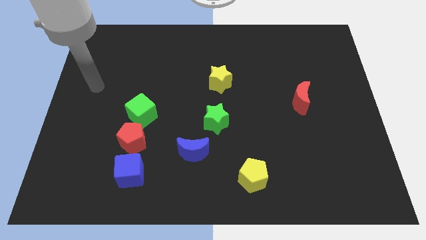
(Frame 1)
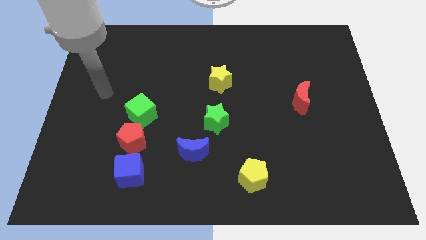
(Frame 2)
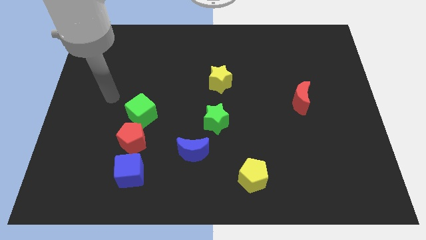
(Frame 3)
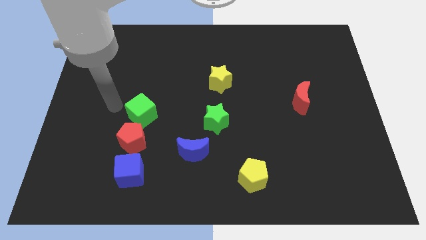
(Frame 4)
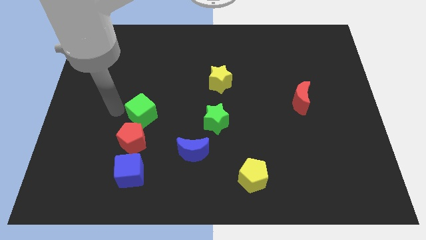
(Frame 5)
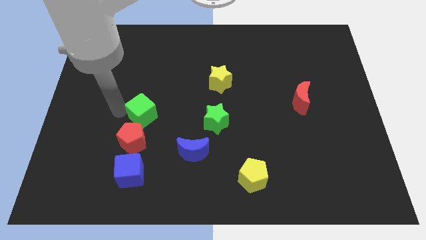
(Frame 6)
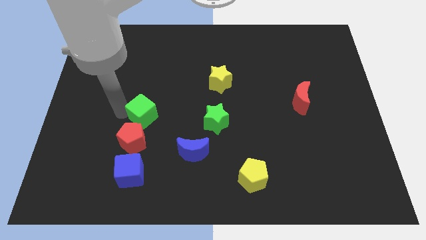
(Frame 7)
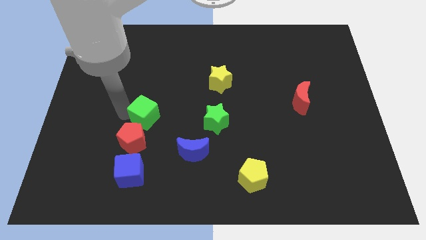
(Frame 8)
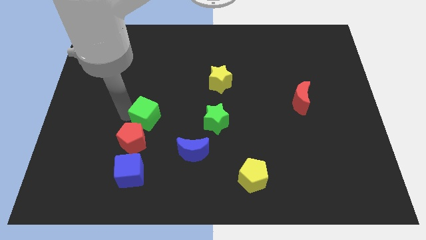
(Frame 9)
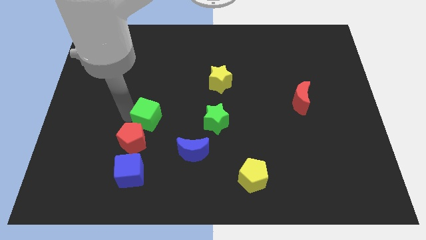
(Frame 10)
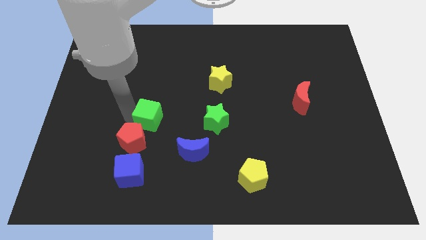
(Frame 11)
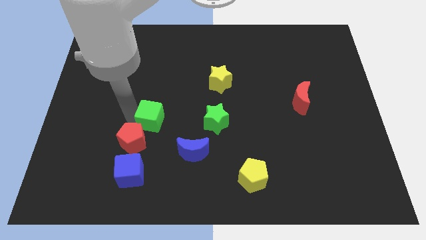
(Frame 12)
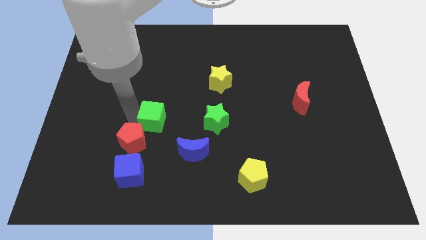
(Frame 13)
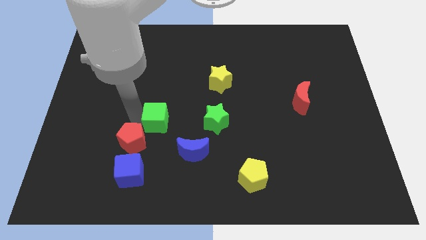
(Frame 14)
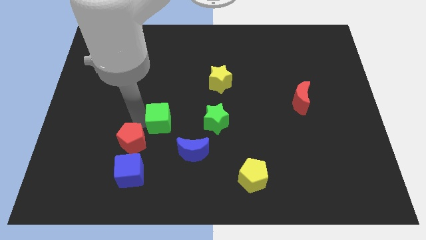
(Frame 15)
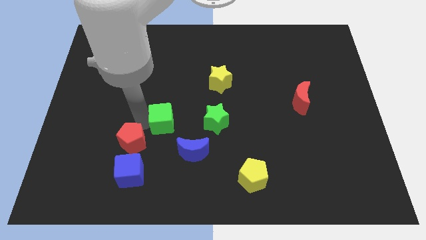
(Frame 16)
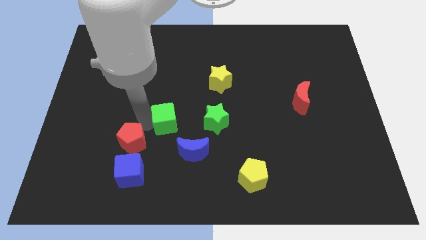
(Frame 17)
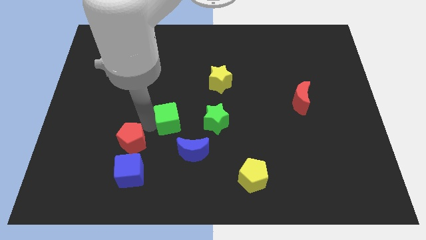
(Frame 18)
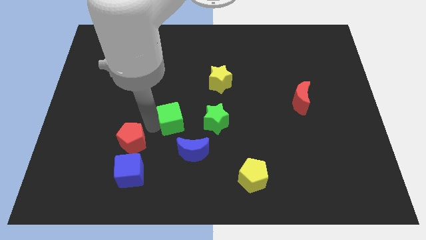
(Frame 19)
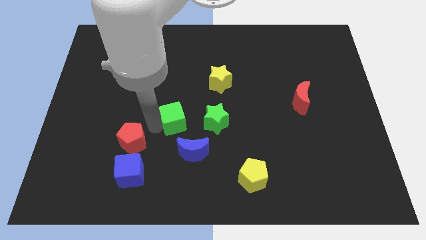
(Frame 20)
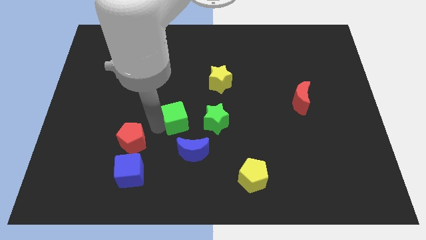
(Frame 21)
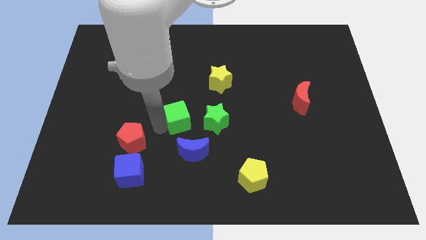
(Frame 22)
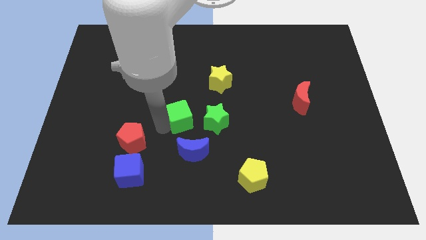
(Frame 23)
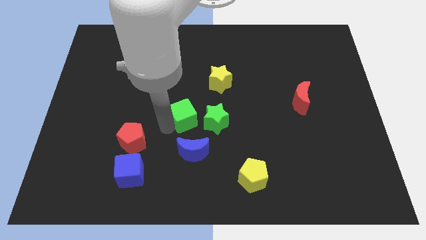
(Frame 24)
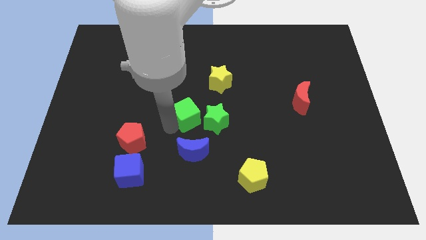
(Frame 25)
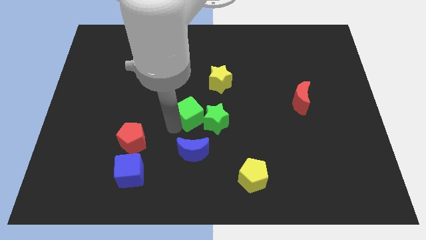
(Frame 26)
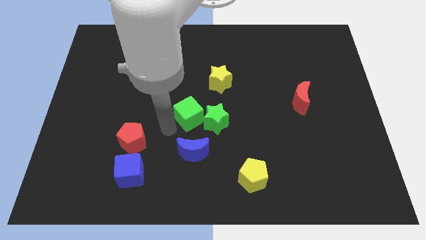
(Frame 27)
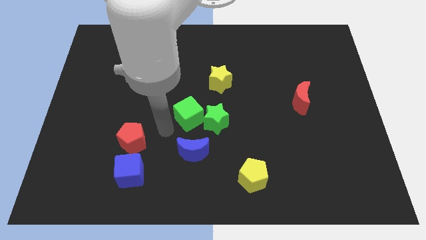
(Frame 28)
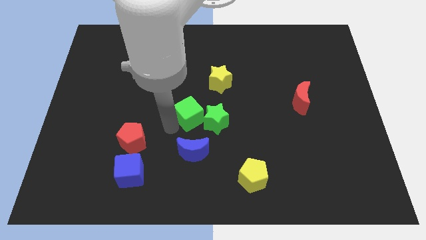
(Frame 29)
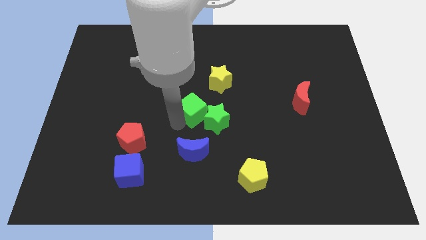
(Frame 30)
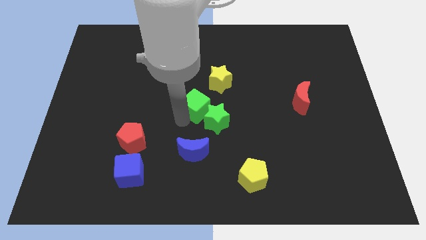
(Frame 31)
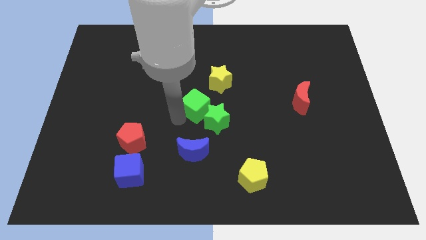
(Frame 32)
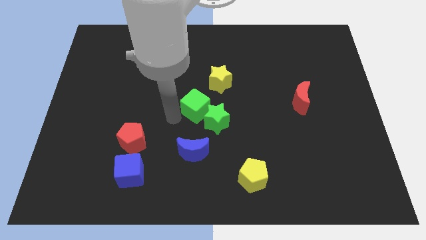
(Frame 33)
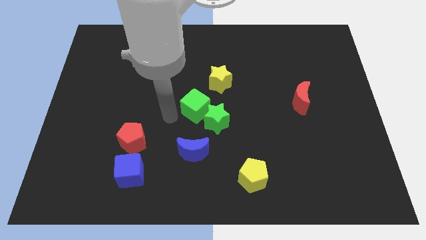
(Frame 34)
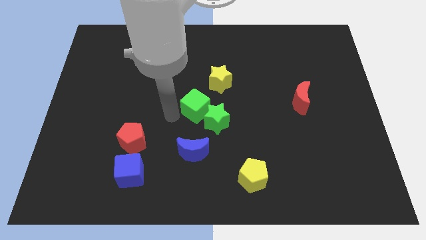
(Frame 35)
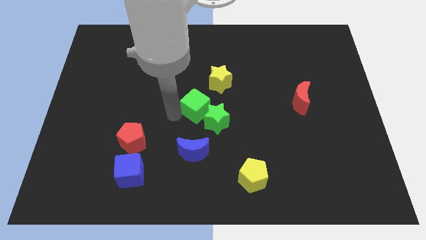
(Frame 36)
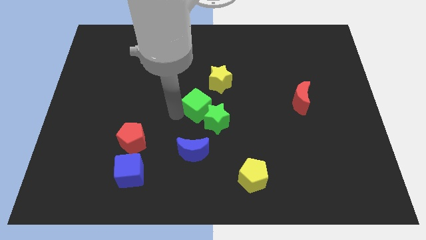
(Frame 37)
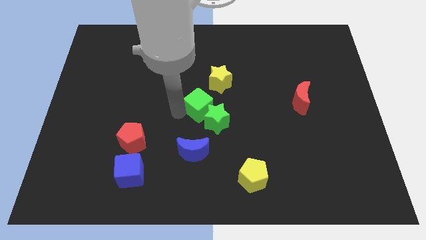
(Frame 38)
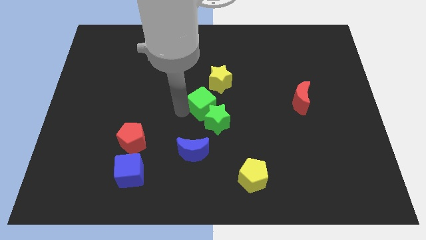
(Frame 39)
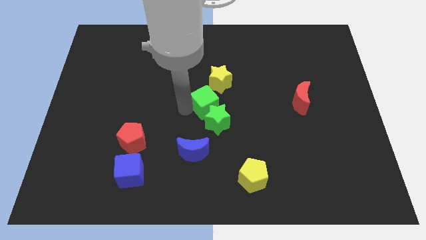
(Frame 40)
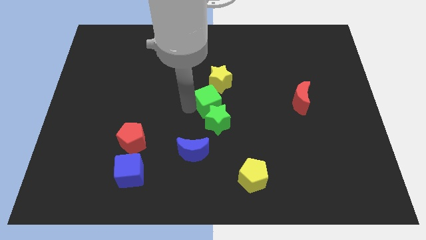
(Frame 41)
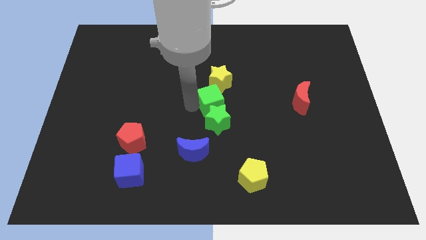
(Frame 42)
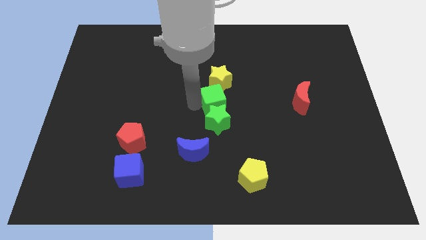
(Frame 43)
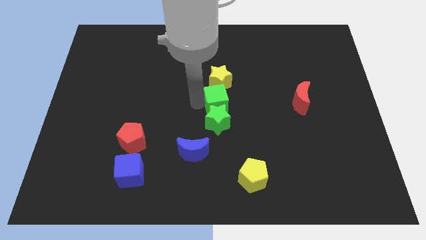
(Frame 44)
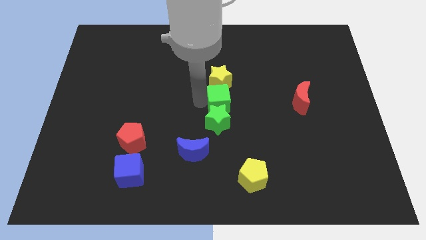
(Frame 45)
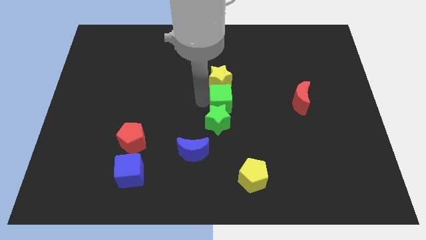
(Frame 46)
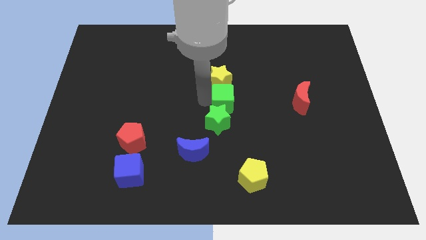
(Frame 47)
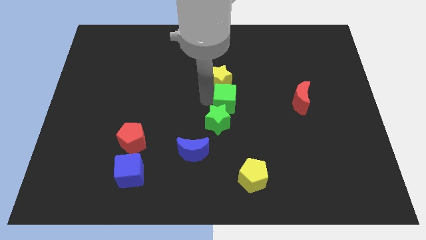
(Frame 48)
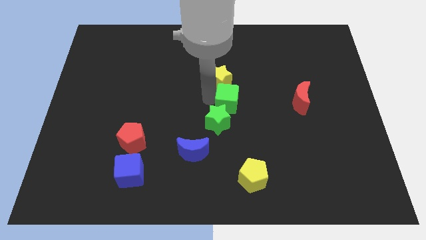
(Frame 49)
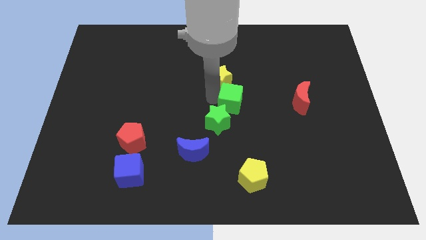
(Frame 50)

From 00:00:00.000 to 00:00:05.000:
move the green cube to the right

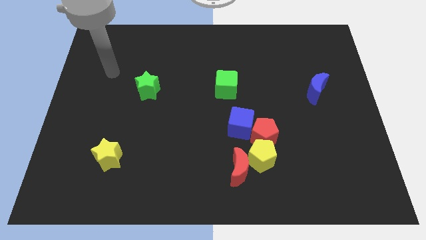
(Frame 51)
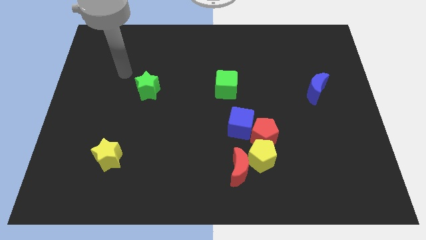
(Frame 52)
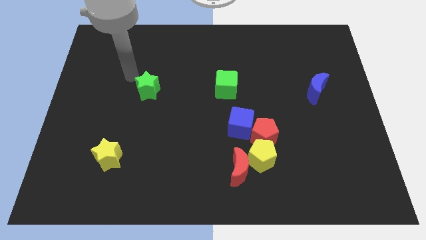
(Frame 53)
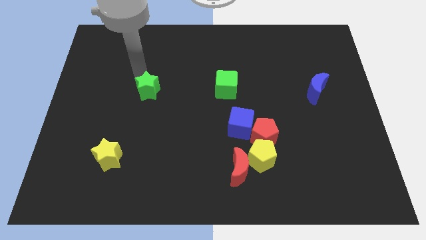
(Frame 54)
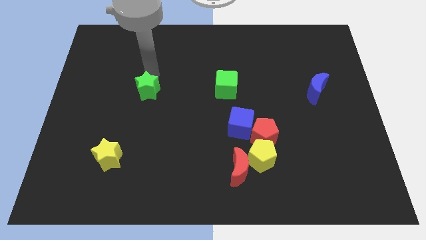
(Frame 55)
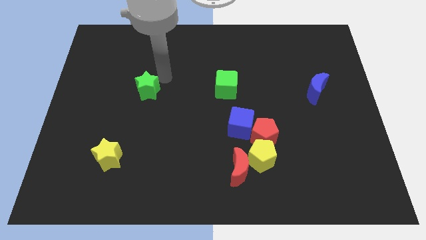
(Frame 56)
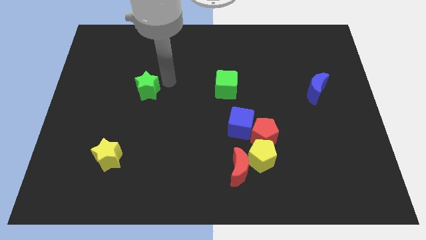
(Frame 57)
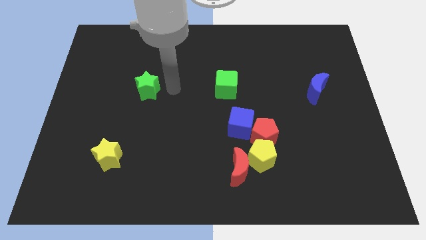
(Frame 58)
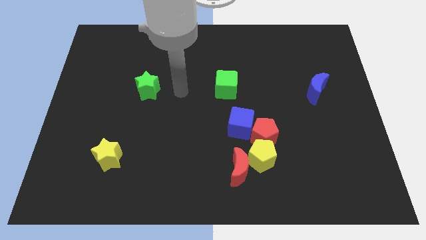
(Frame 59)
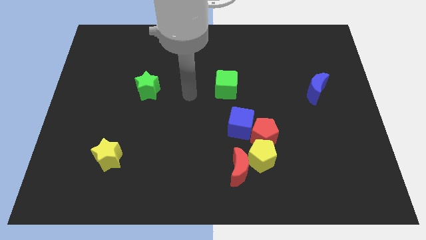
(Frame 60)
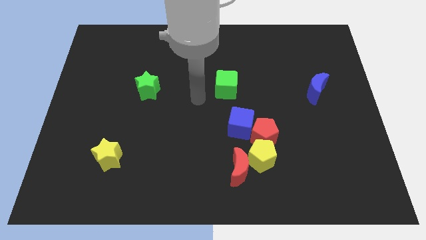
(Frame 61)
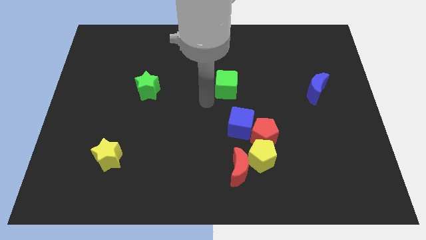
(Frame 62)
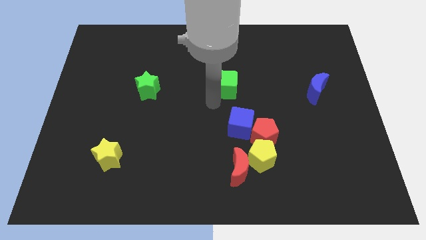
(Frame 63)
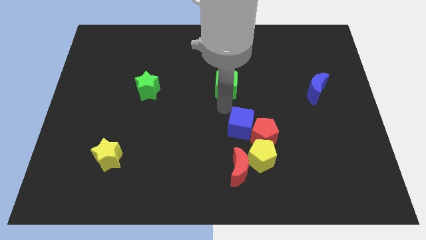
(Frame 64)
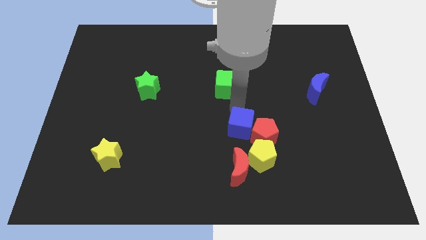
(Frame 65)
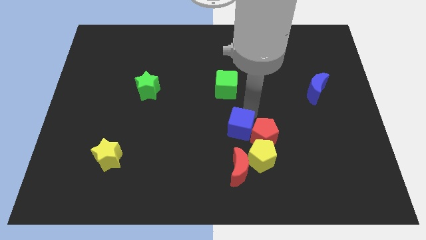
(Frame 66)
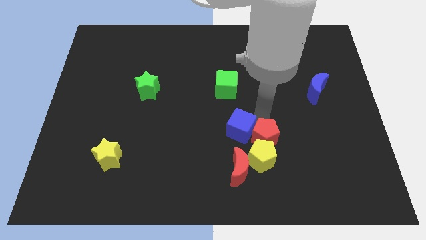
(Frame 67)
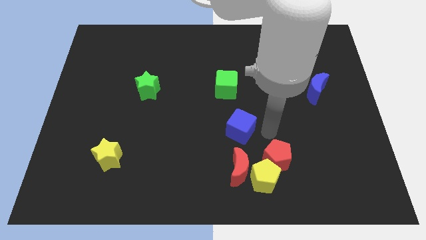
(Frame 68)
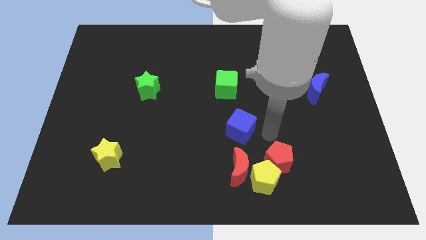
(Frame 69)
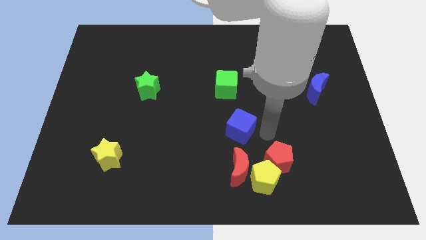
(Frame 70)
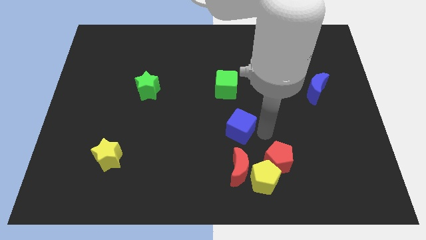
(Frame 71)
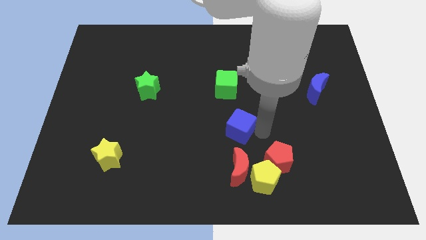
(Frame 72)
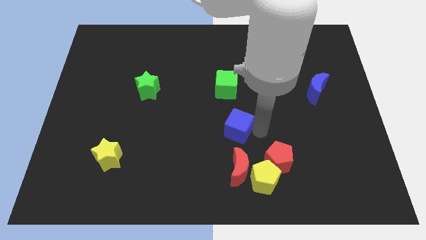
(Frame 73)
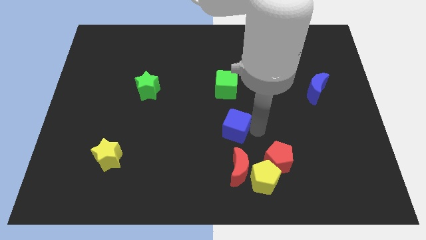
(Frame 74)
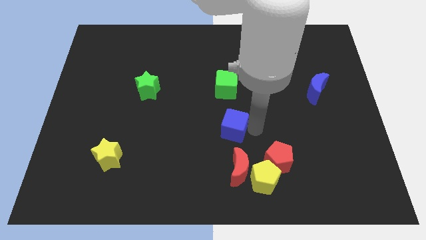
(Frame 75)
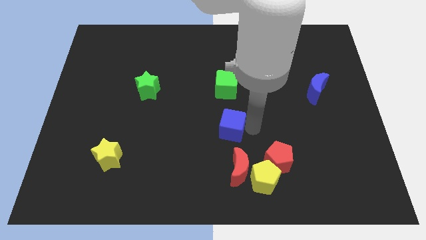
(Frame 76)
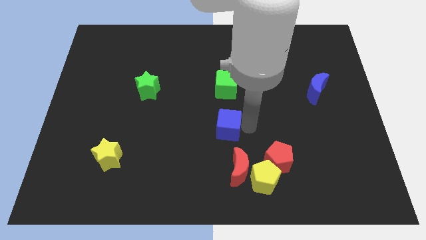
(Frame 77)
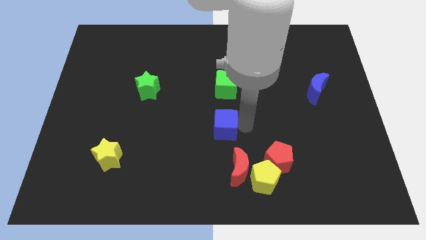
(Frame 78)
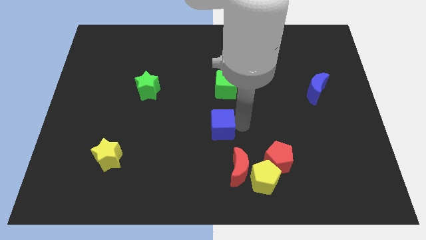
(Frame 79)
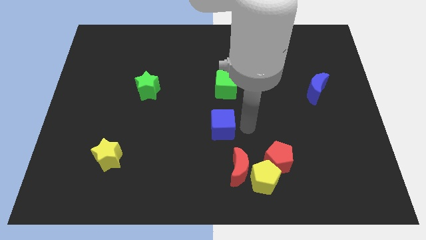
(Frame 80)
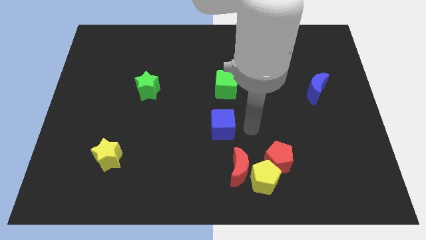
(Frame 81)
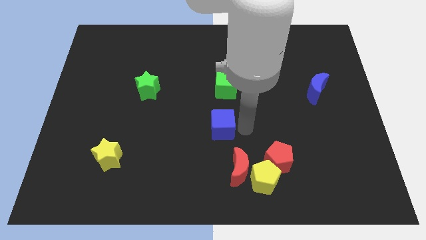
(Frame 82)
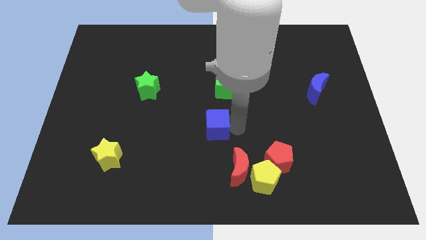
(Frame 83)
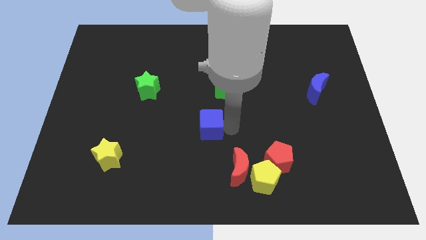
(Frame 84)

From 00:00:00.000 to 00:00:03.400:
slightly push the blue cube to the left
